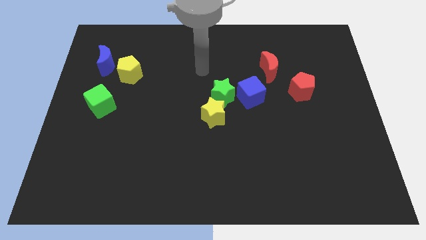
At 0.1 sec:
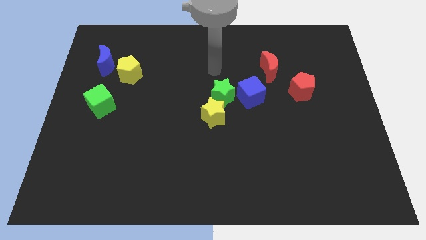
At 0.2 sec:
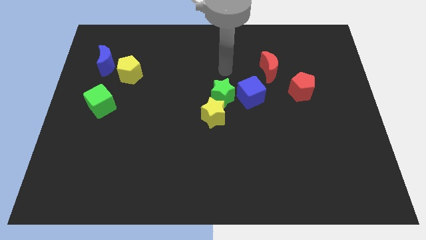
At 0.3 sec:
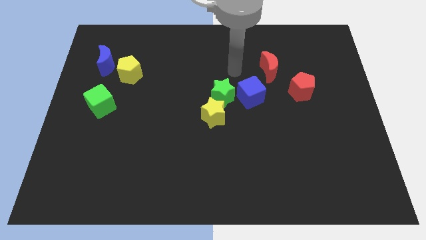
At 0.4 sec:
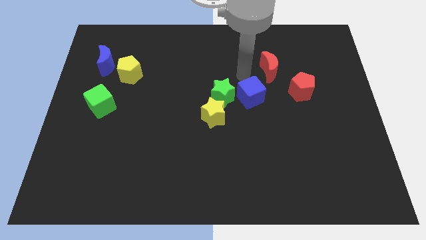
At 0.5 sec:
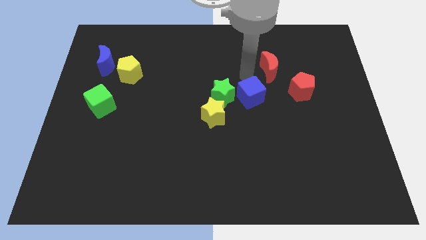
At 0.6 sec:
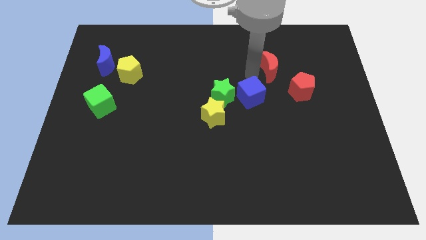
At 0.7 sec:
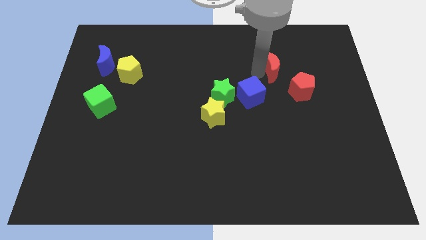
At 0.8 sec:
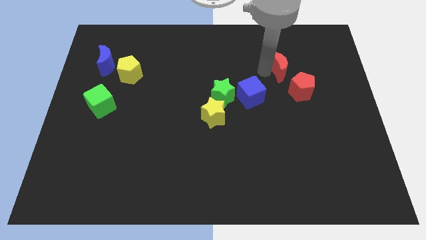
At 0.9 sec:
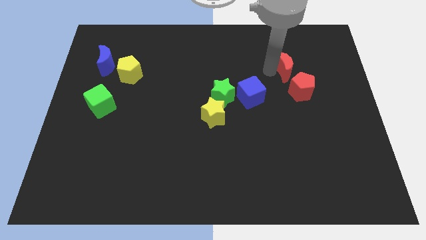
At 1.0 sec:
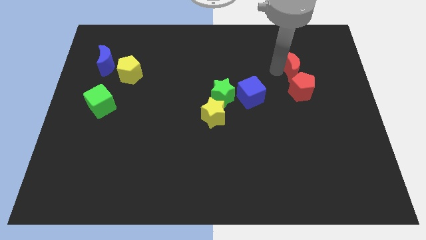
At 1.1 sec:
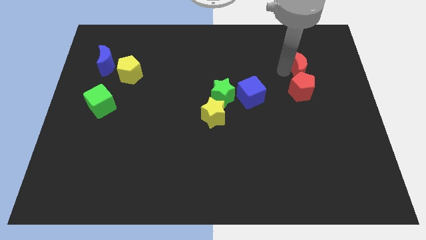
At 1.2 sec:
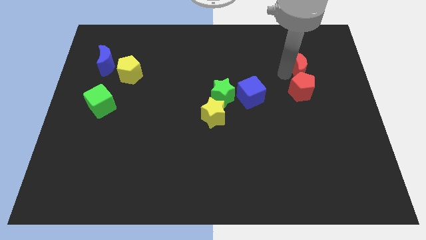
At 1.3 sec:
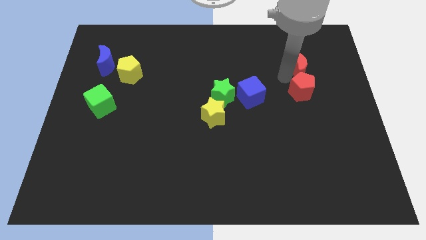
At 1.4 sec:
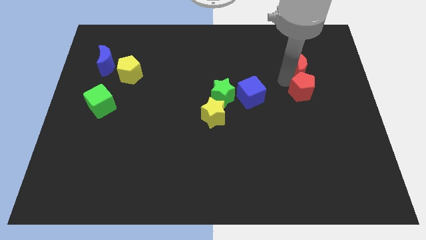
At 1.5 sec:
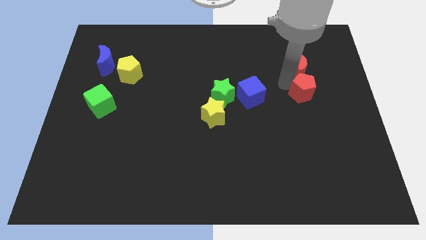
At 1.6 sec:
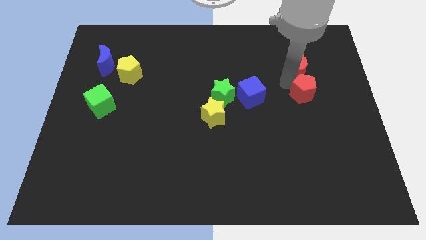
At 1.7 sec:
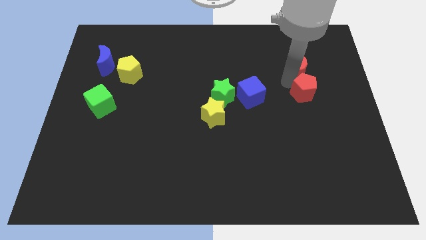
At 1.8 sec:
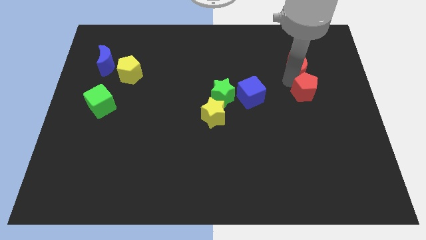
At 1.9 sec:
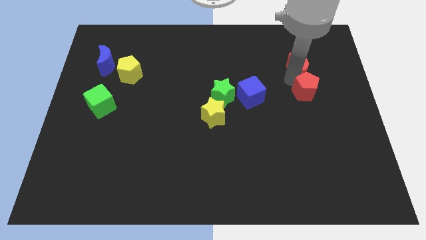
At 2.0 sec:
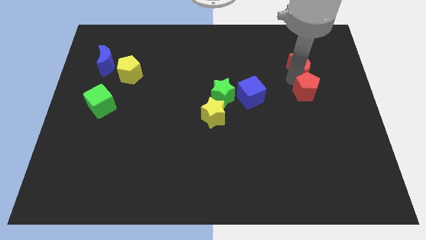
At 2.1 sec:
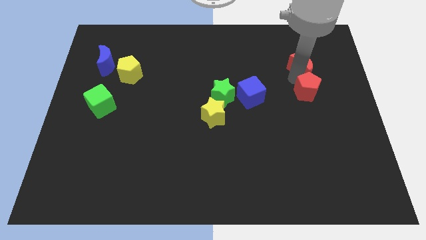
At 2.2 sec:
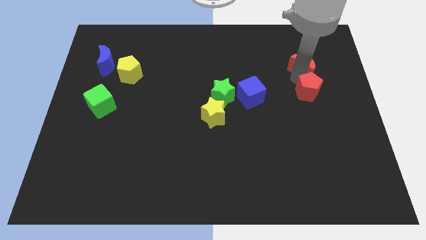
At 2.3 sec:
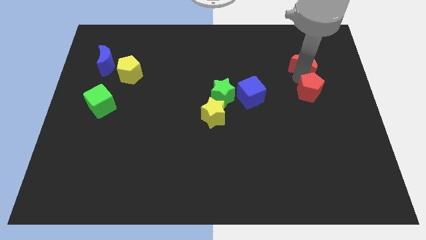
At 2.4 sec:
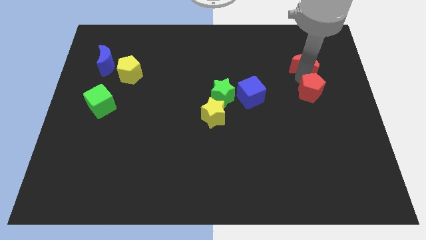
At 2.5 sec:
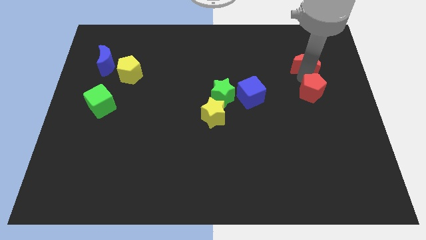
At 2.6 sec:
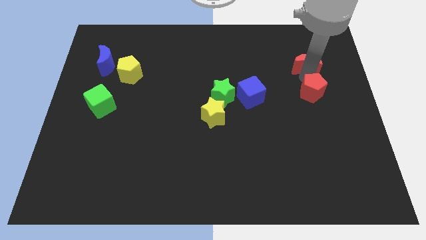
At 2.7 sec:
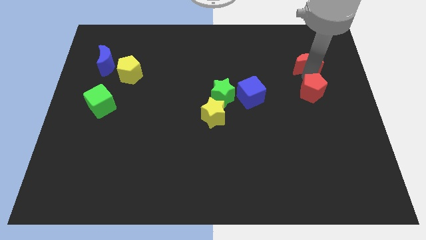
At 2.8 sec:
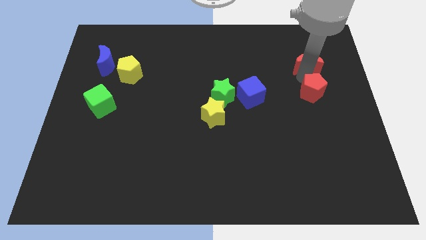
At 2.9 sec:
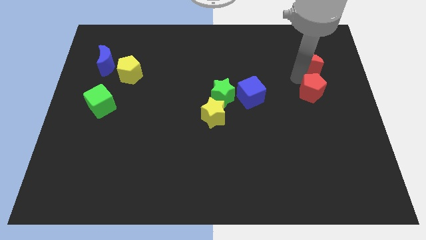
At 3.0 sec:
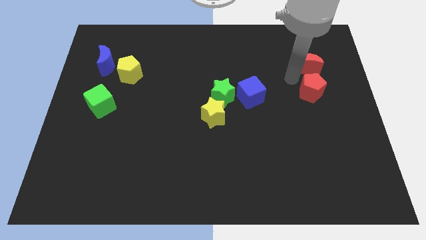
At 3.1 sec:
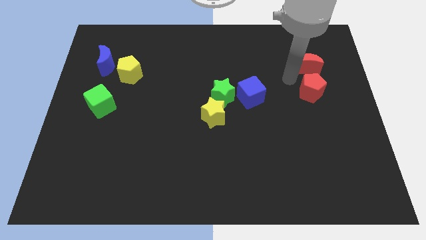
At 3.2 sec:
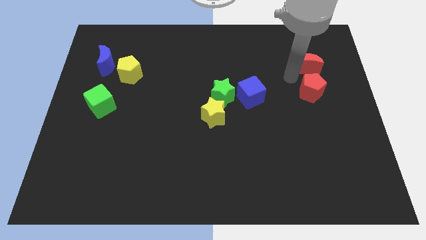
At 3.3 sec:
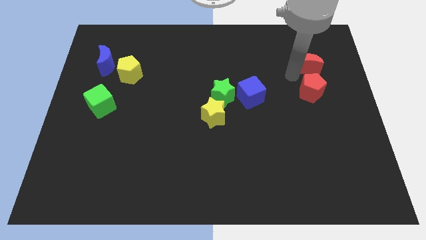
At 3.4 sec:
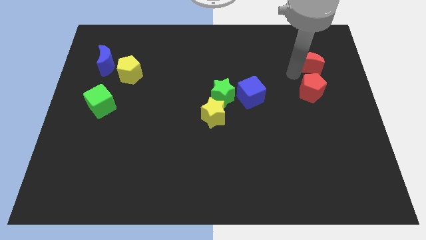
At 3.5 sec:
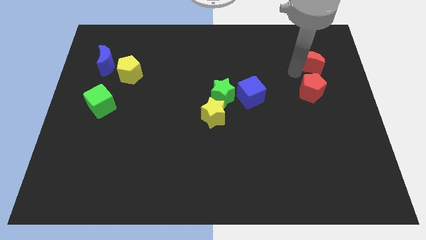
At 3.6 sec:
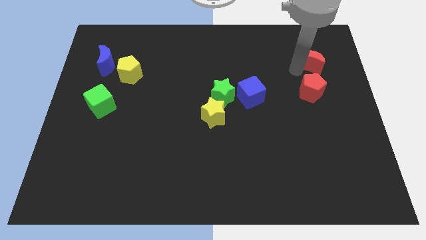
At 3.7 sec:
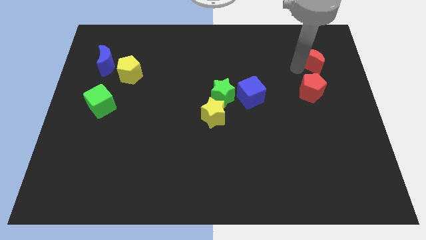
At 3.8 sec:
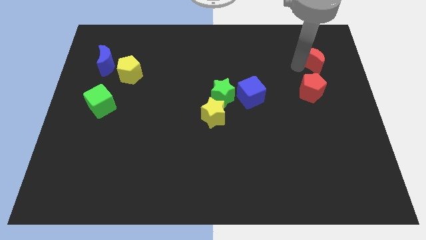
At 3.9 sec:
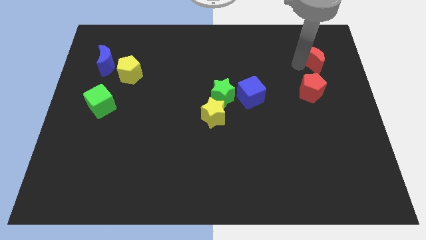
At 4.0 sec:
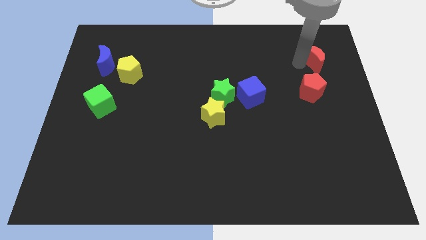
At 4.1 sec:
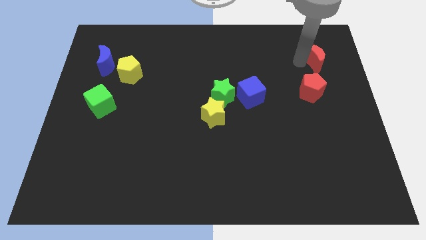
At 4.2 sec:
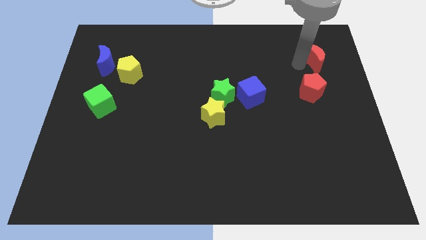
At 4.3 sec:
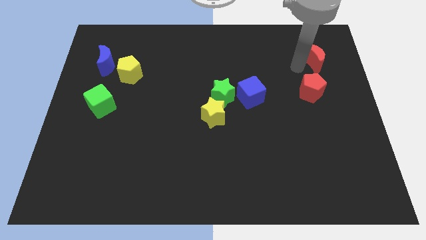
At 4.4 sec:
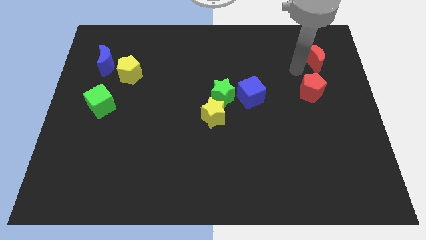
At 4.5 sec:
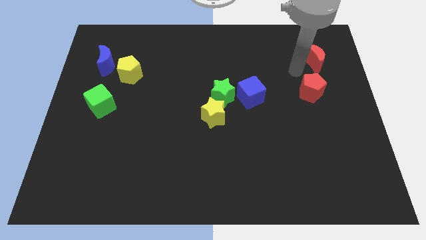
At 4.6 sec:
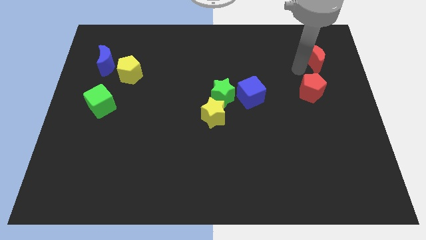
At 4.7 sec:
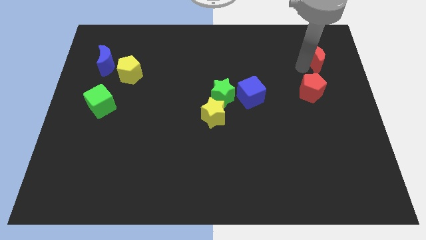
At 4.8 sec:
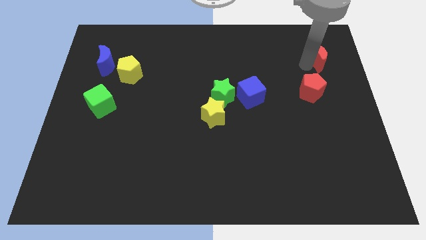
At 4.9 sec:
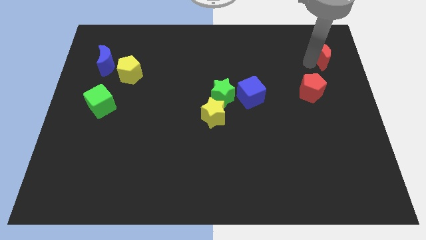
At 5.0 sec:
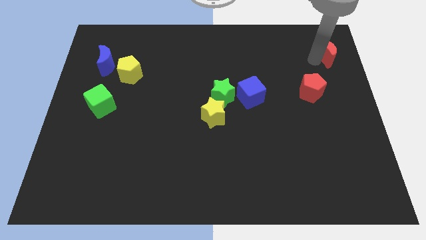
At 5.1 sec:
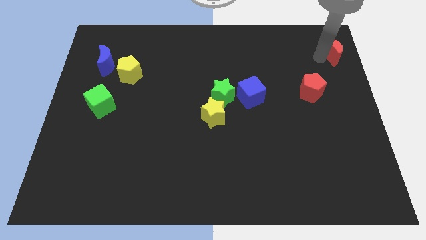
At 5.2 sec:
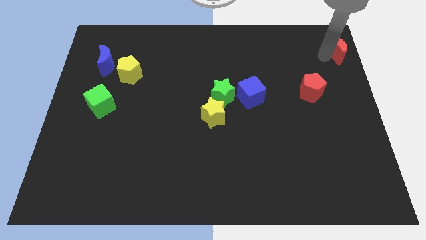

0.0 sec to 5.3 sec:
slide the red moon to the top right

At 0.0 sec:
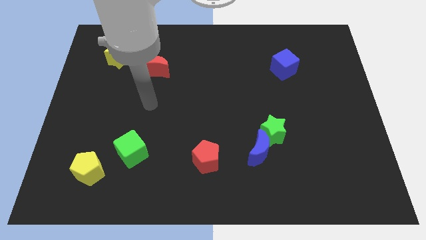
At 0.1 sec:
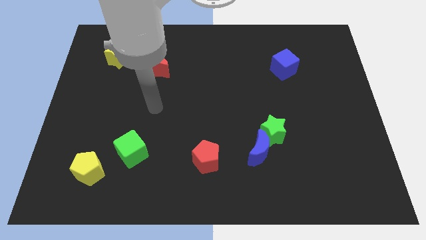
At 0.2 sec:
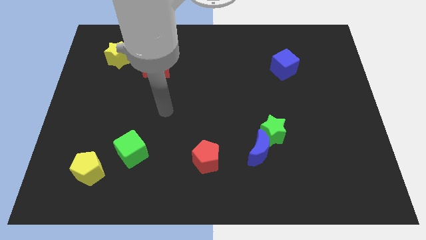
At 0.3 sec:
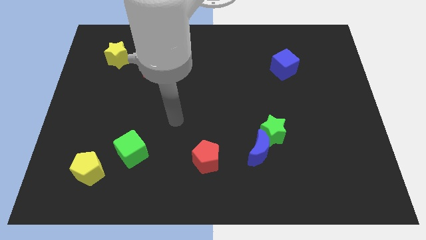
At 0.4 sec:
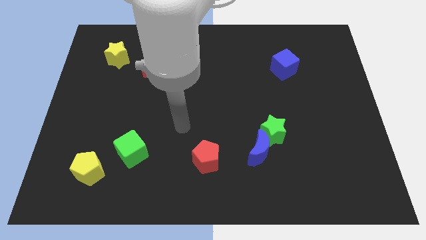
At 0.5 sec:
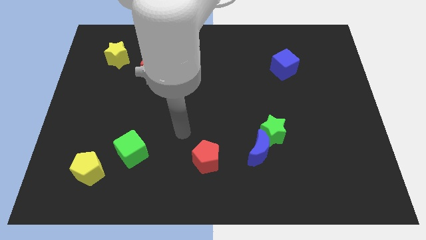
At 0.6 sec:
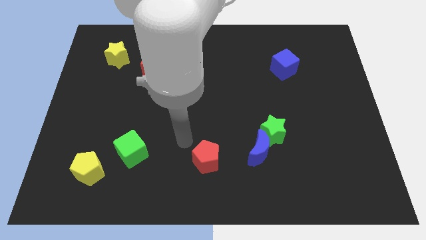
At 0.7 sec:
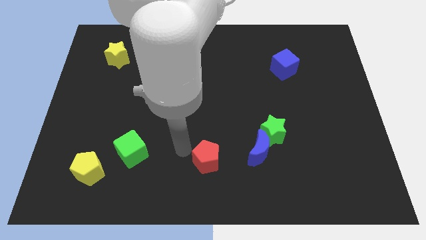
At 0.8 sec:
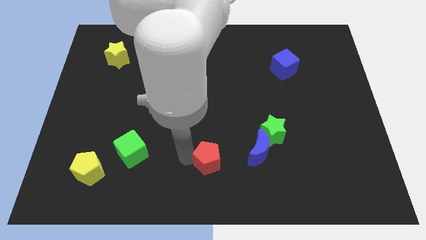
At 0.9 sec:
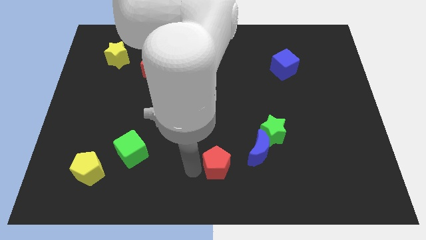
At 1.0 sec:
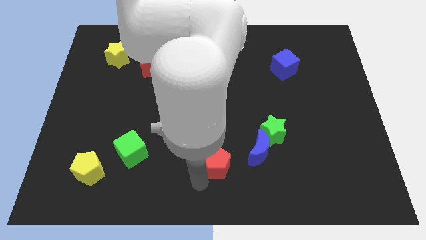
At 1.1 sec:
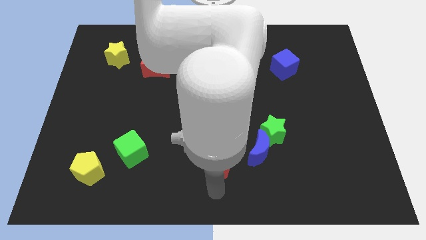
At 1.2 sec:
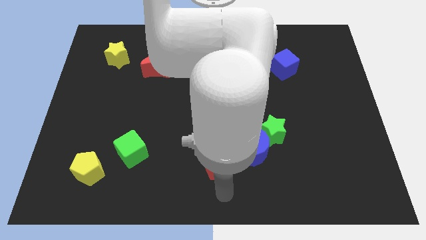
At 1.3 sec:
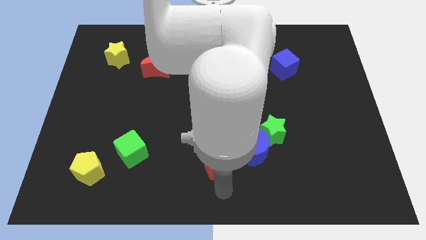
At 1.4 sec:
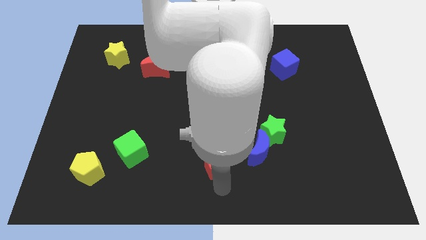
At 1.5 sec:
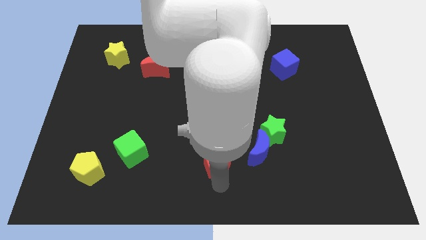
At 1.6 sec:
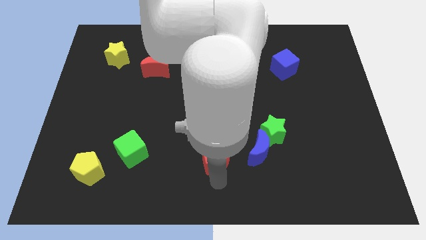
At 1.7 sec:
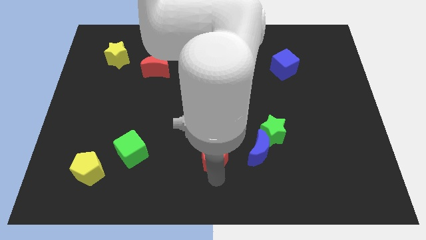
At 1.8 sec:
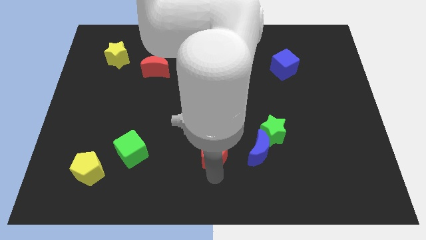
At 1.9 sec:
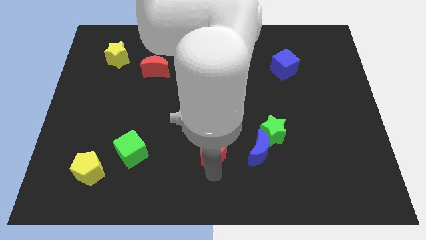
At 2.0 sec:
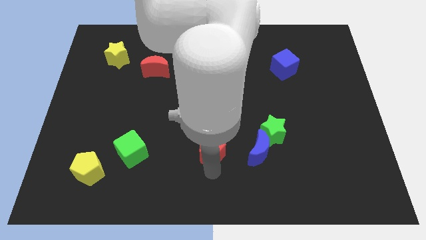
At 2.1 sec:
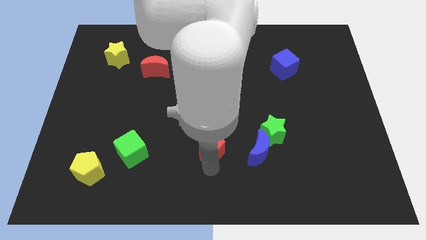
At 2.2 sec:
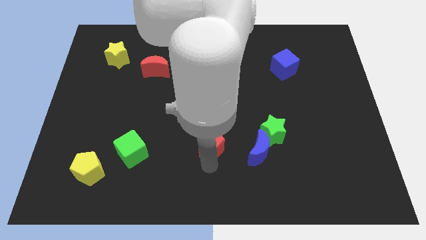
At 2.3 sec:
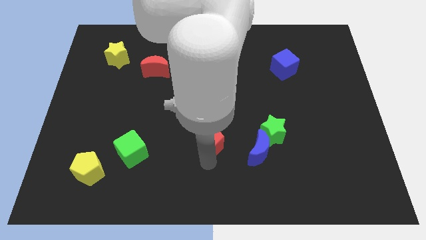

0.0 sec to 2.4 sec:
slide the red pentagon to the middle of the board
